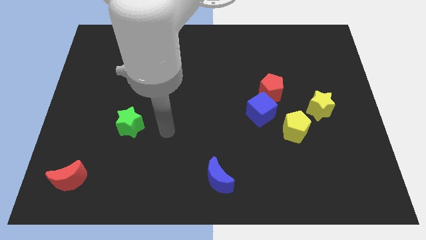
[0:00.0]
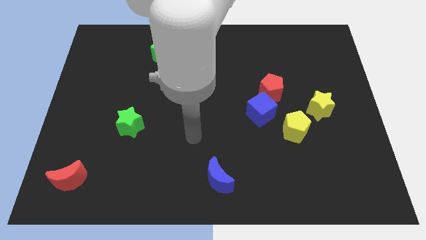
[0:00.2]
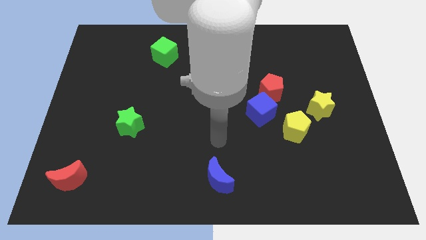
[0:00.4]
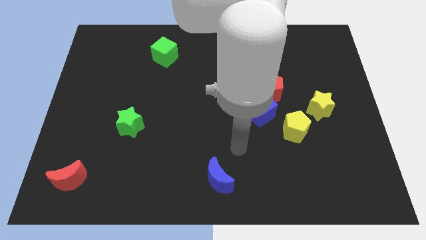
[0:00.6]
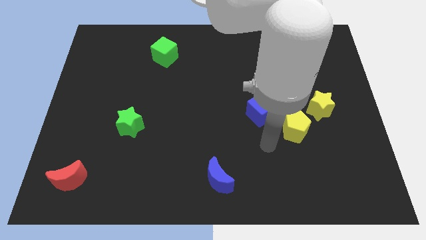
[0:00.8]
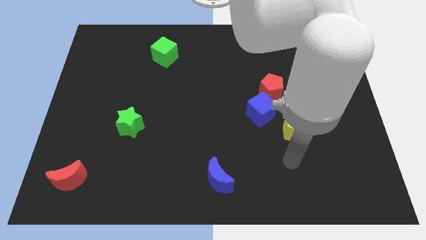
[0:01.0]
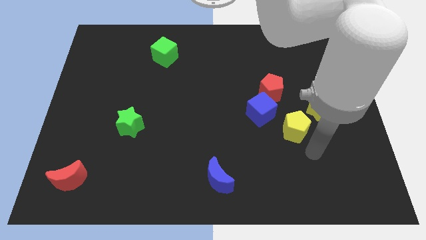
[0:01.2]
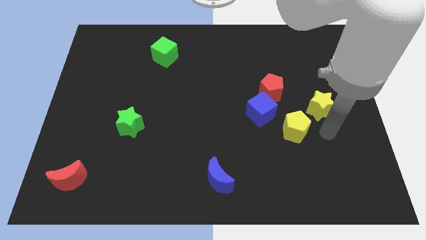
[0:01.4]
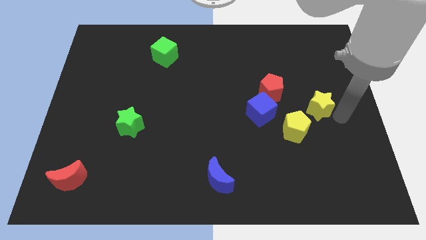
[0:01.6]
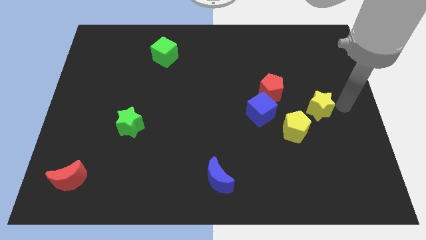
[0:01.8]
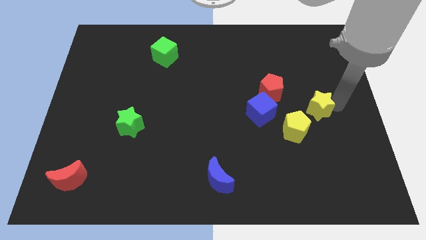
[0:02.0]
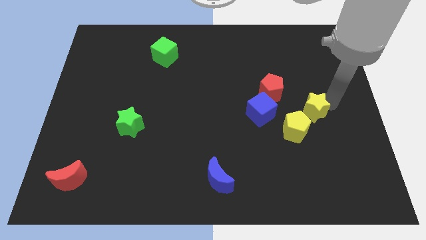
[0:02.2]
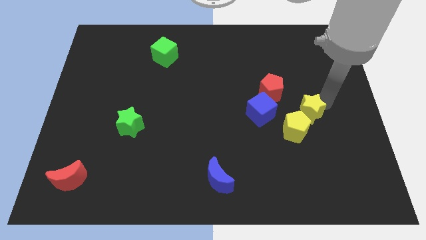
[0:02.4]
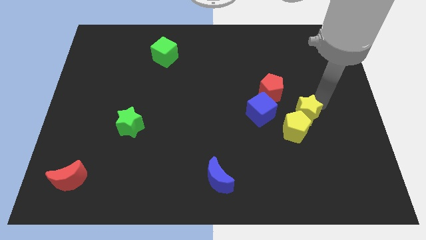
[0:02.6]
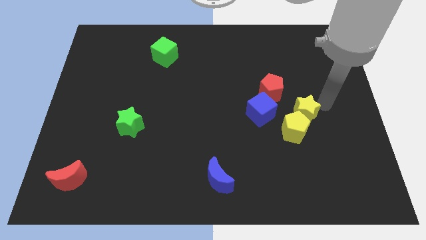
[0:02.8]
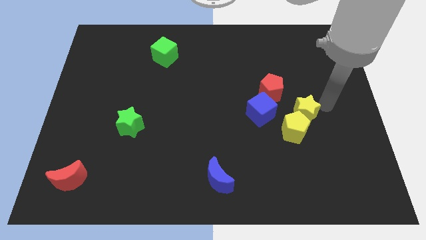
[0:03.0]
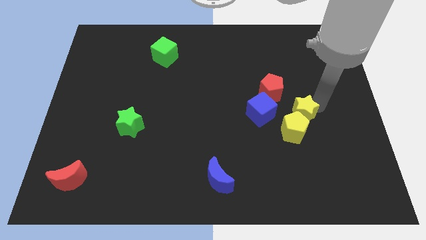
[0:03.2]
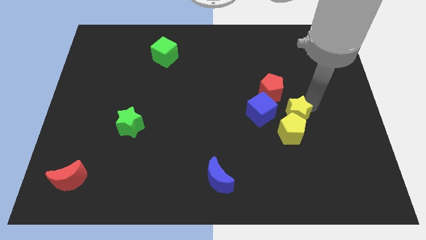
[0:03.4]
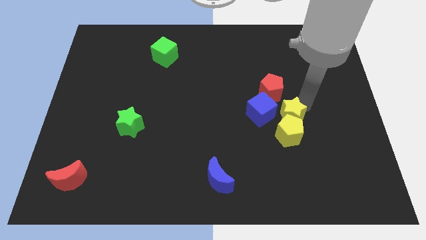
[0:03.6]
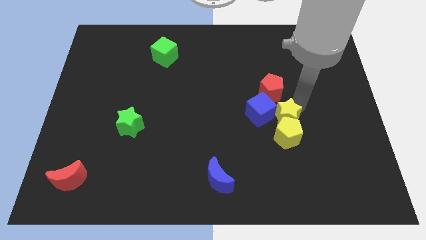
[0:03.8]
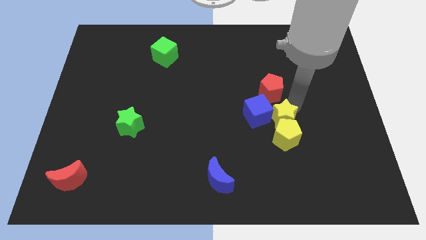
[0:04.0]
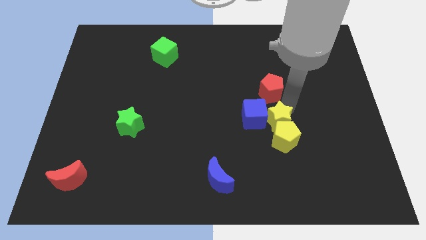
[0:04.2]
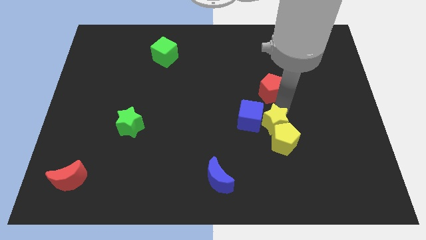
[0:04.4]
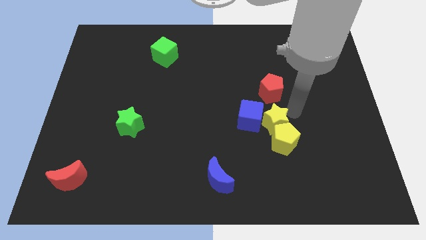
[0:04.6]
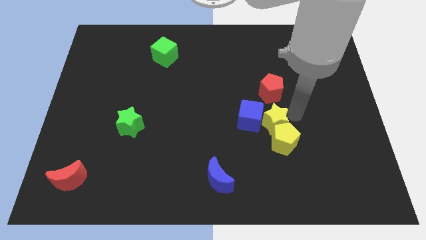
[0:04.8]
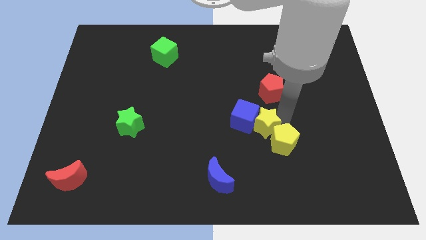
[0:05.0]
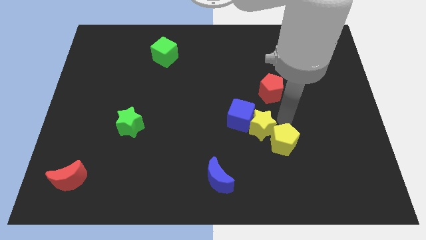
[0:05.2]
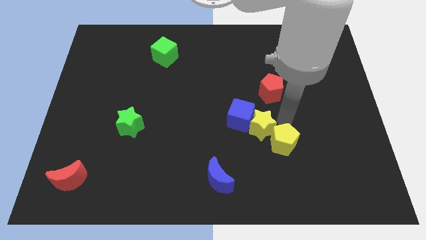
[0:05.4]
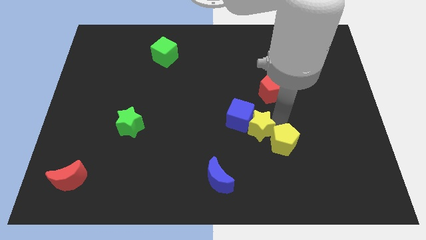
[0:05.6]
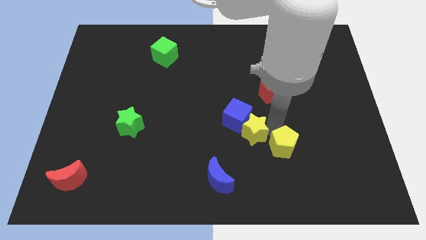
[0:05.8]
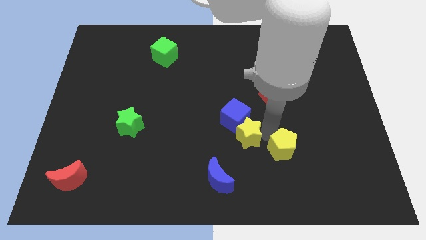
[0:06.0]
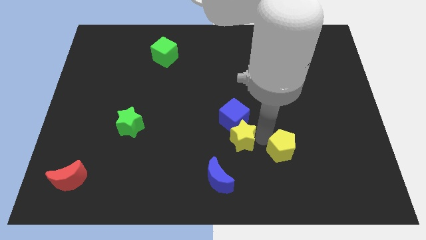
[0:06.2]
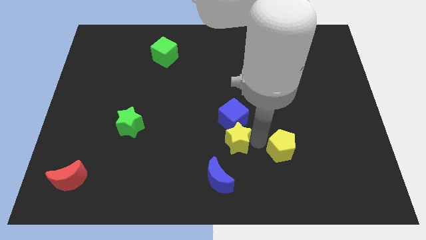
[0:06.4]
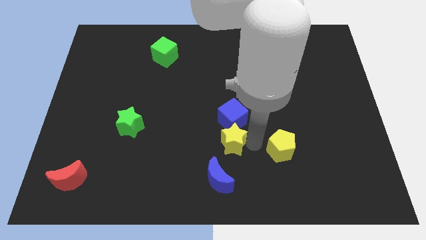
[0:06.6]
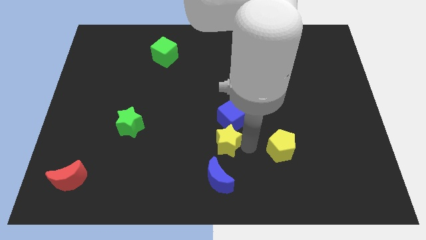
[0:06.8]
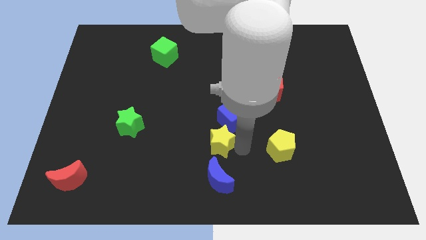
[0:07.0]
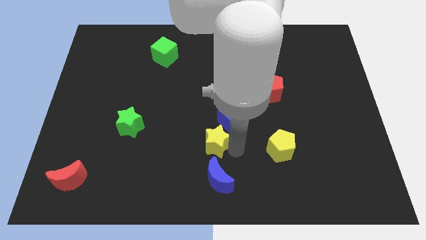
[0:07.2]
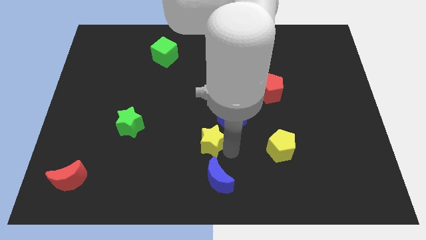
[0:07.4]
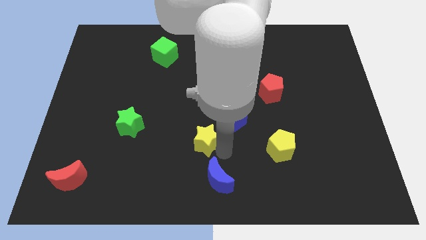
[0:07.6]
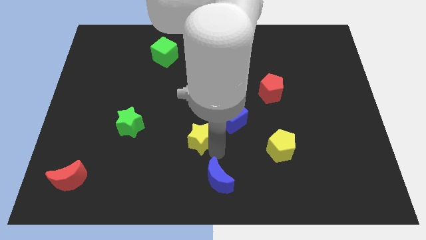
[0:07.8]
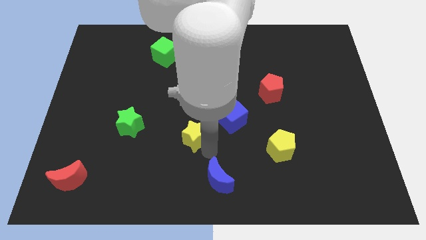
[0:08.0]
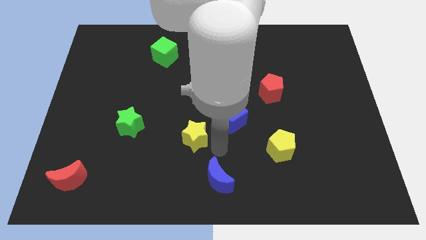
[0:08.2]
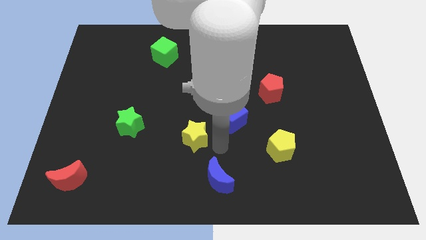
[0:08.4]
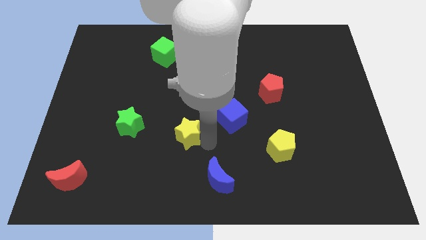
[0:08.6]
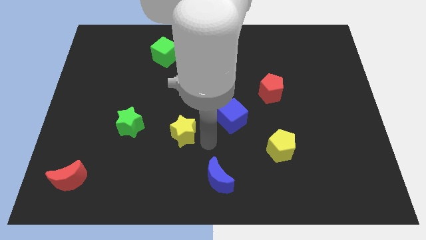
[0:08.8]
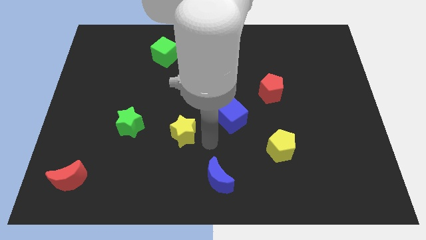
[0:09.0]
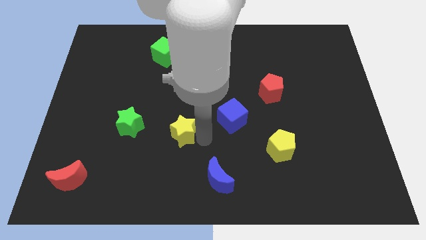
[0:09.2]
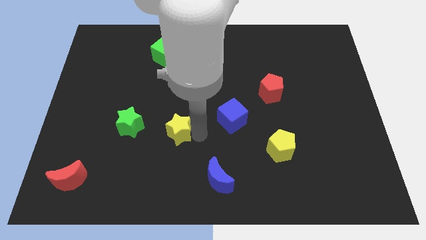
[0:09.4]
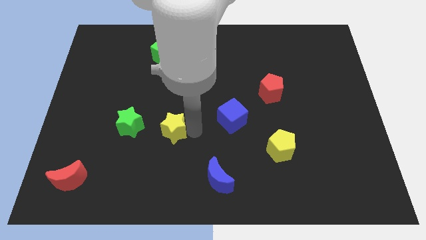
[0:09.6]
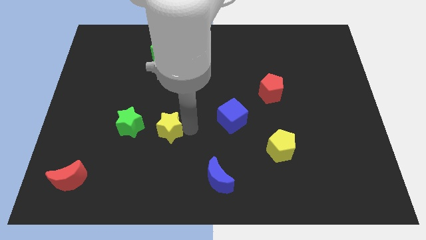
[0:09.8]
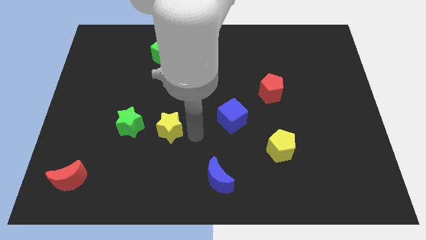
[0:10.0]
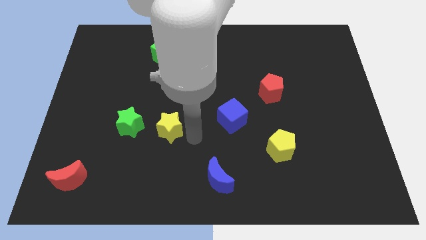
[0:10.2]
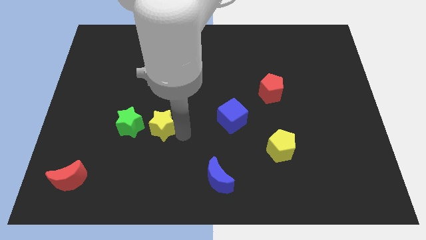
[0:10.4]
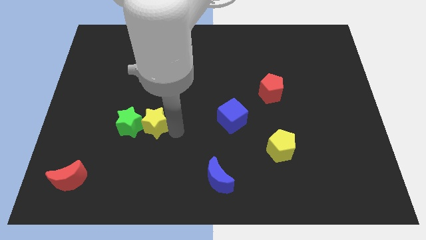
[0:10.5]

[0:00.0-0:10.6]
move the yellow star to the green star

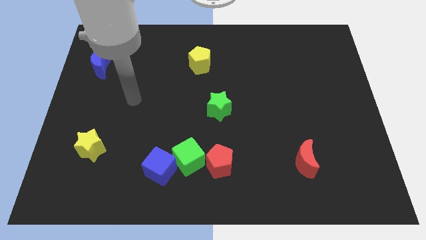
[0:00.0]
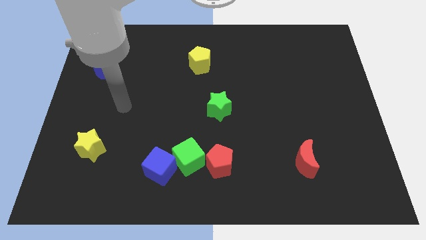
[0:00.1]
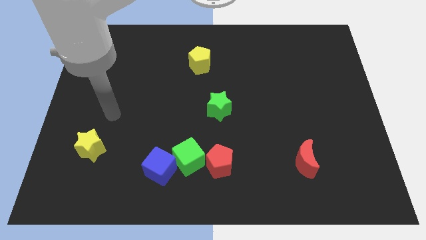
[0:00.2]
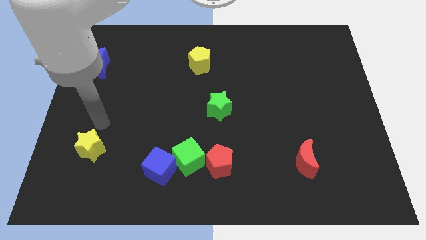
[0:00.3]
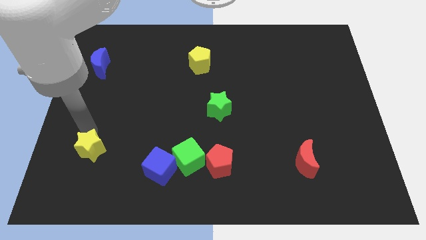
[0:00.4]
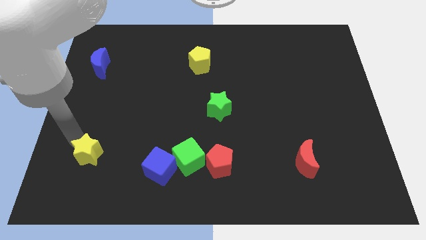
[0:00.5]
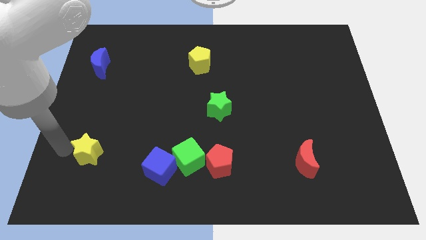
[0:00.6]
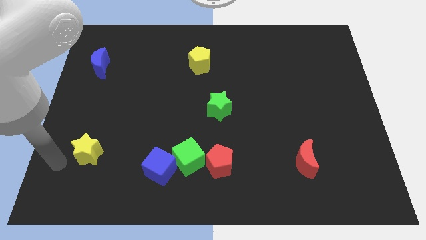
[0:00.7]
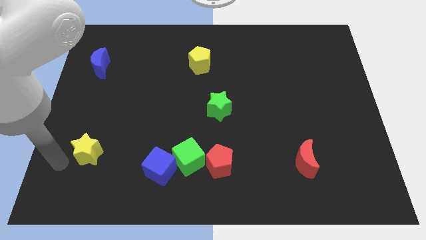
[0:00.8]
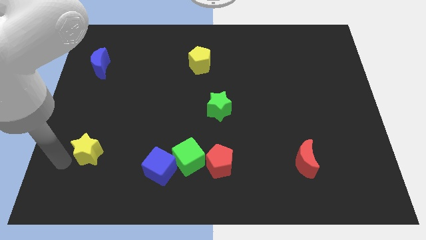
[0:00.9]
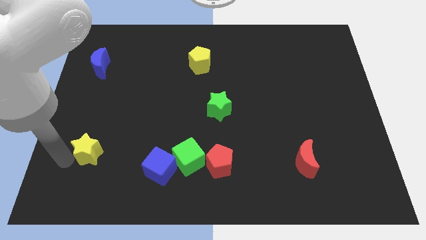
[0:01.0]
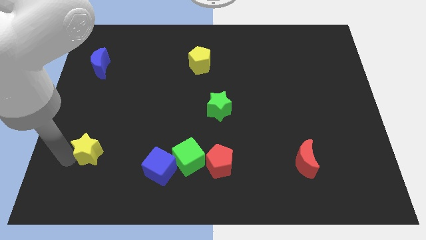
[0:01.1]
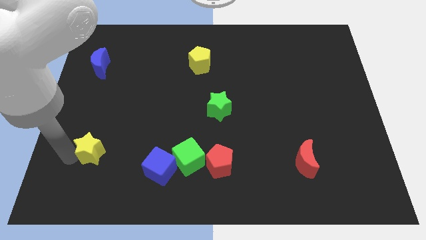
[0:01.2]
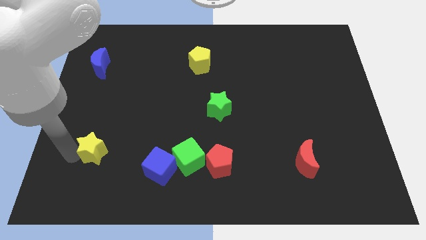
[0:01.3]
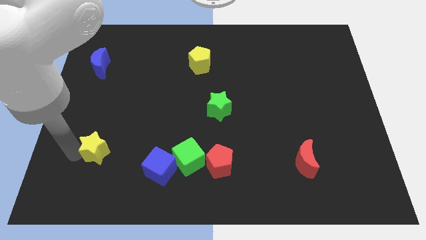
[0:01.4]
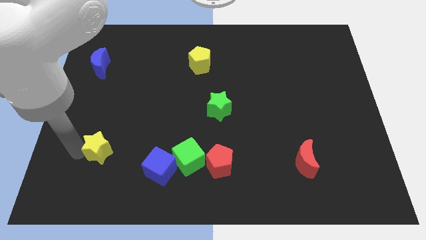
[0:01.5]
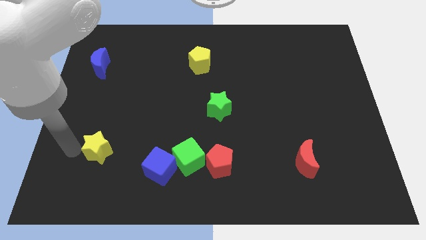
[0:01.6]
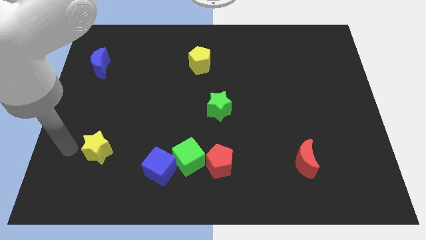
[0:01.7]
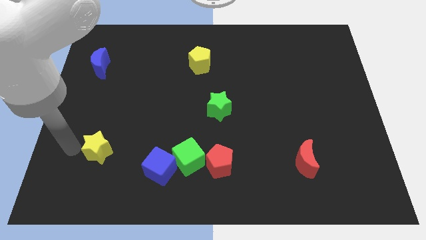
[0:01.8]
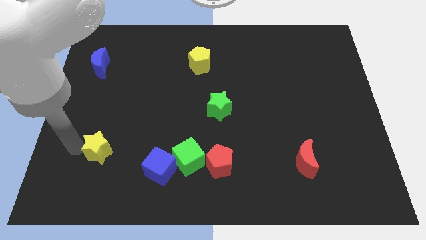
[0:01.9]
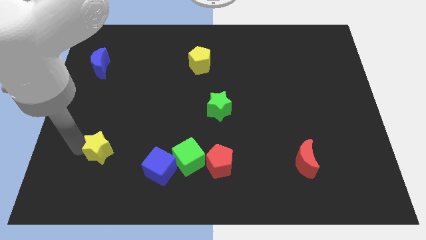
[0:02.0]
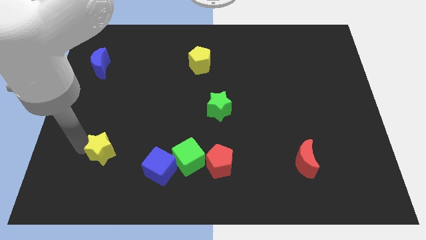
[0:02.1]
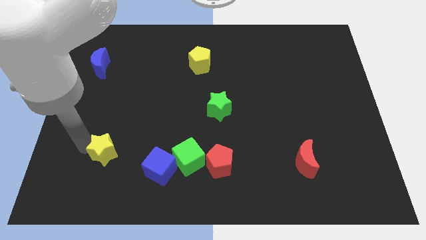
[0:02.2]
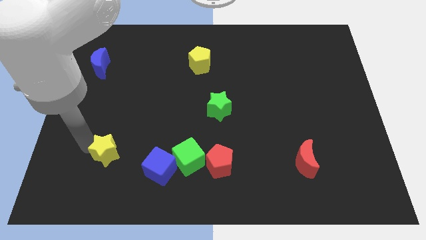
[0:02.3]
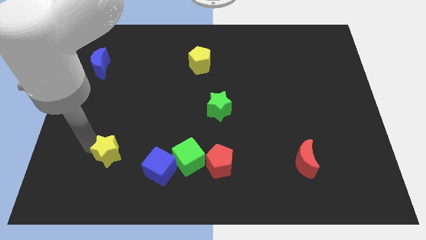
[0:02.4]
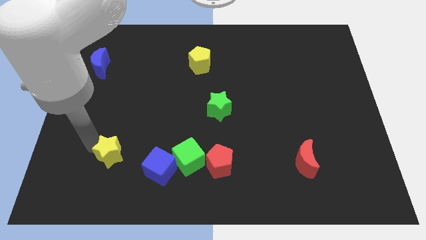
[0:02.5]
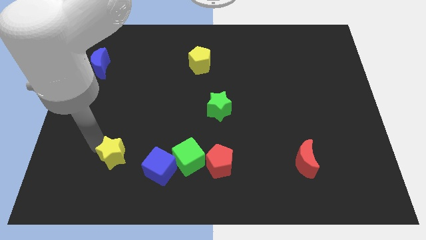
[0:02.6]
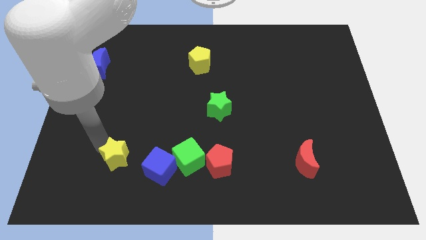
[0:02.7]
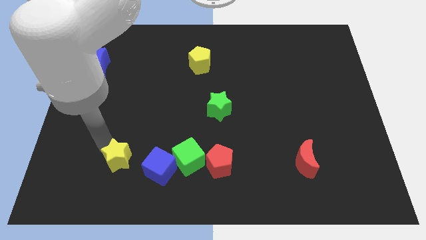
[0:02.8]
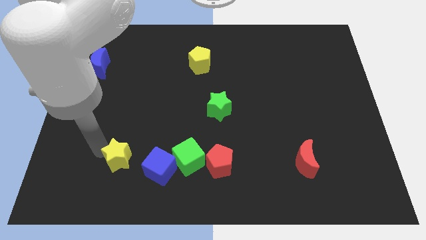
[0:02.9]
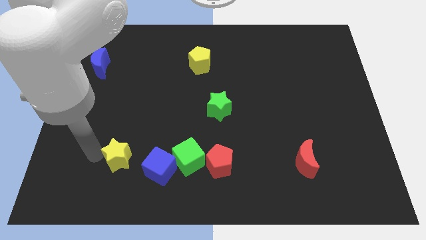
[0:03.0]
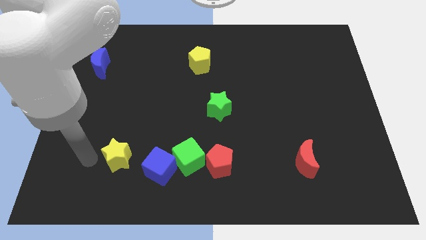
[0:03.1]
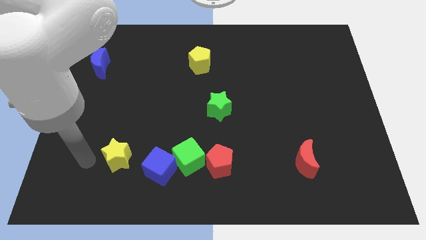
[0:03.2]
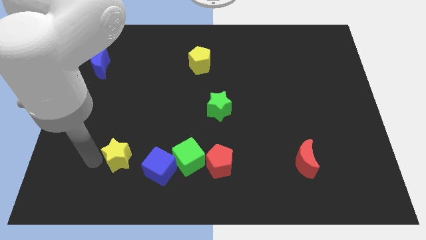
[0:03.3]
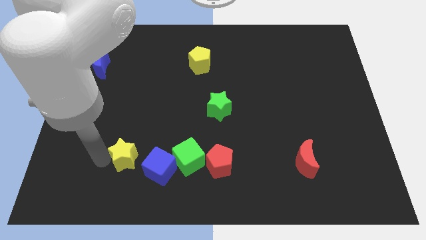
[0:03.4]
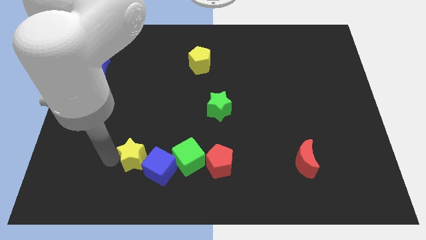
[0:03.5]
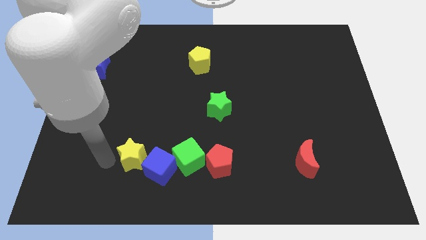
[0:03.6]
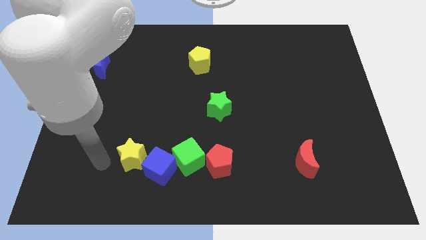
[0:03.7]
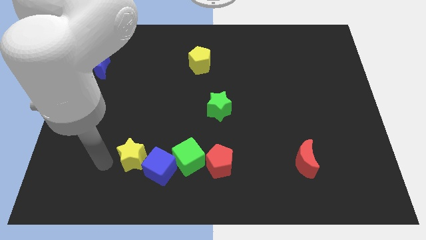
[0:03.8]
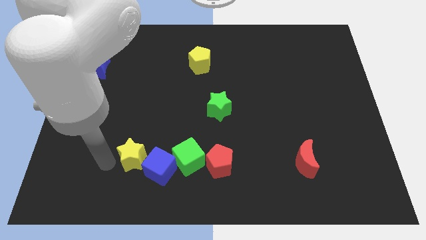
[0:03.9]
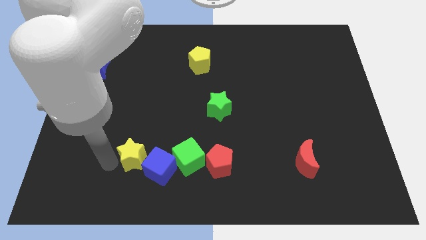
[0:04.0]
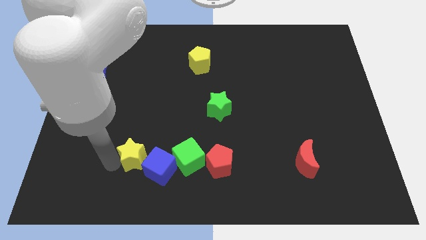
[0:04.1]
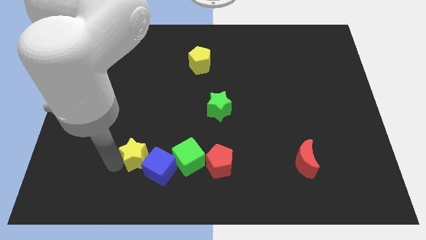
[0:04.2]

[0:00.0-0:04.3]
push the yellow star to the blue cube
